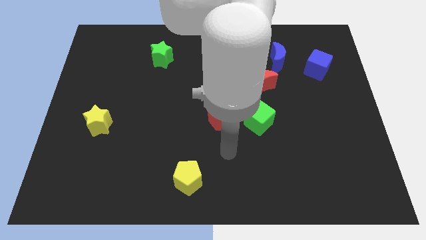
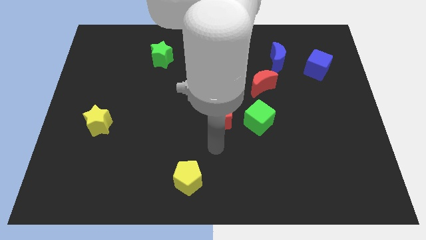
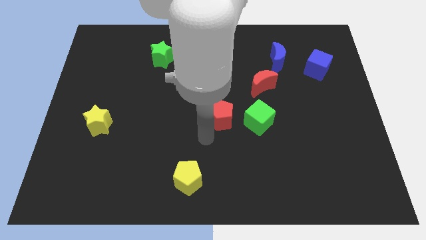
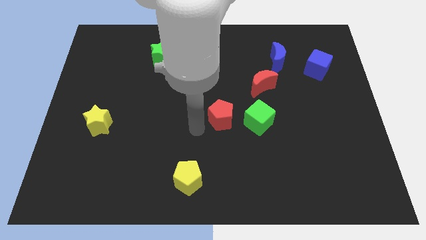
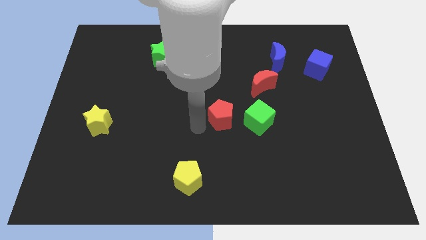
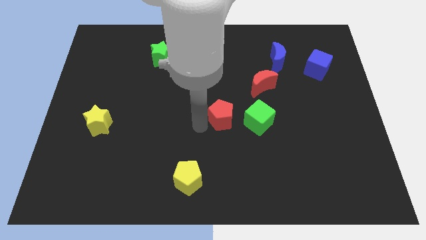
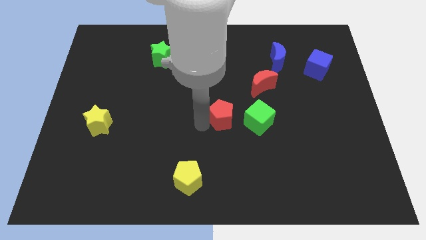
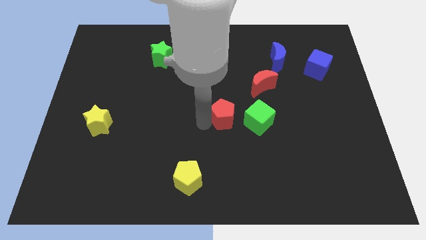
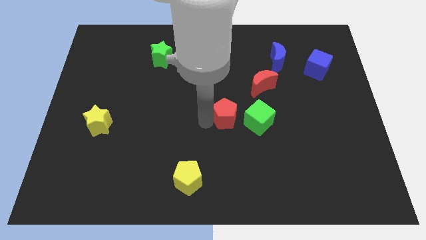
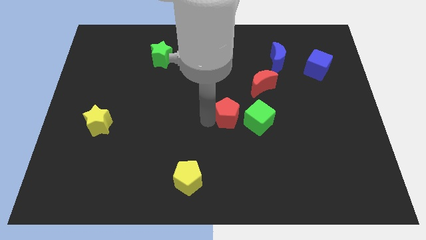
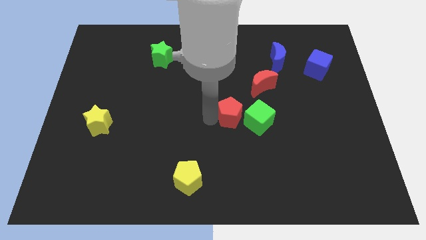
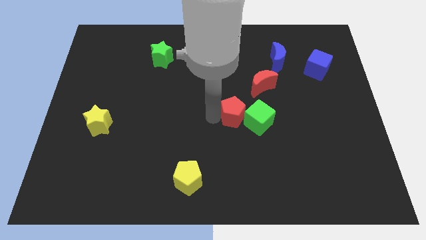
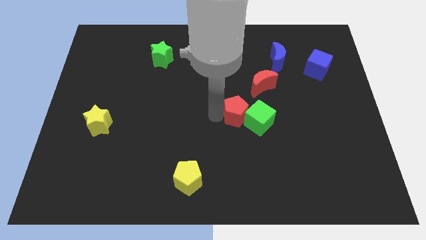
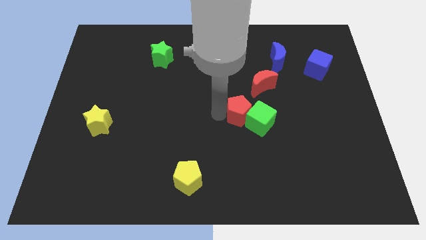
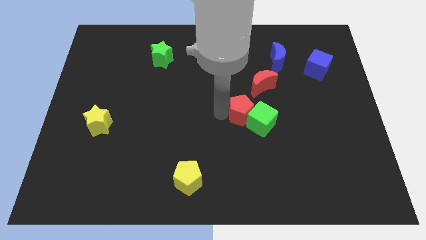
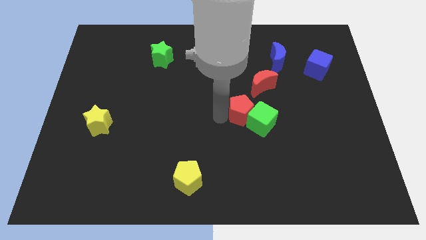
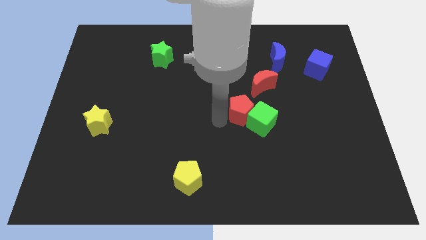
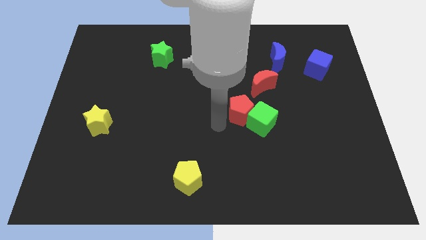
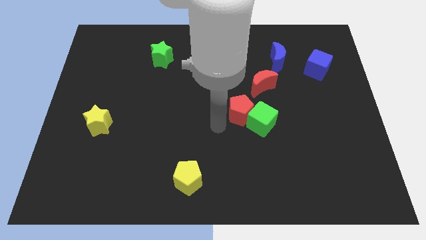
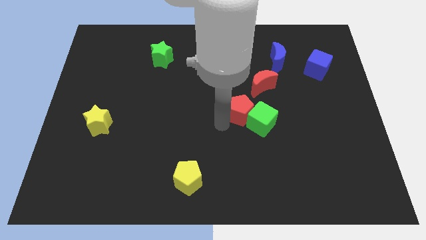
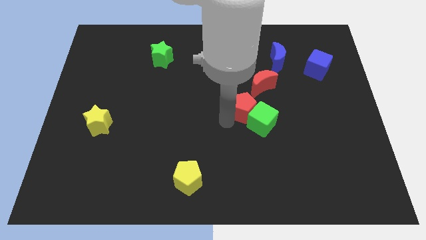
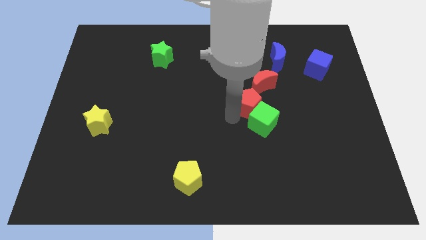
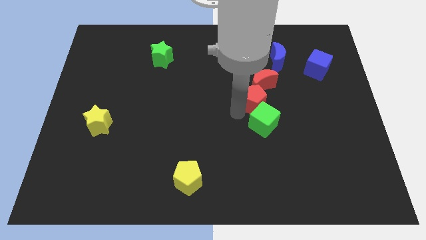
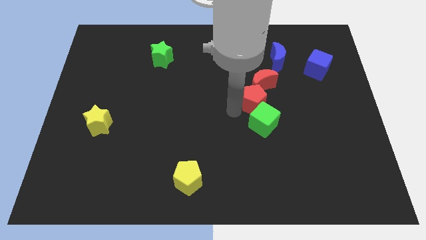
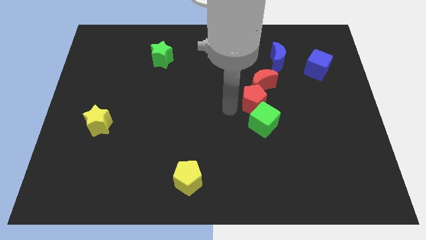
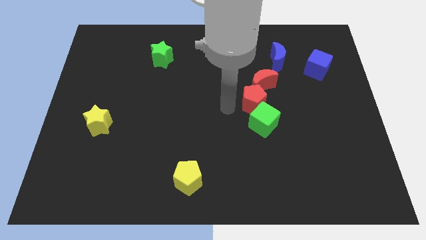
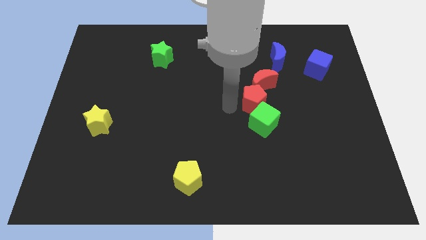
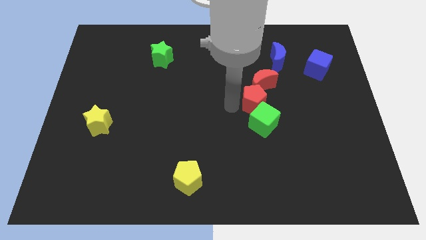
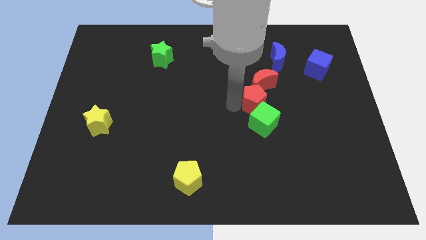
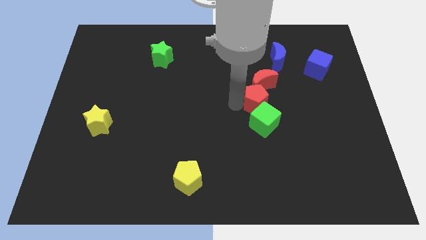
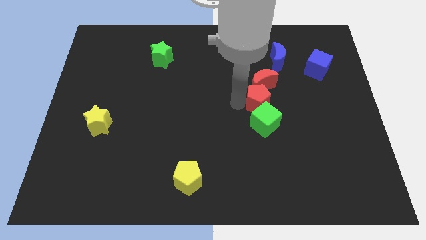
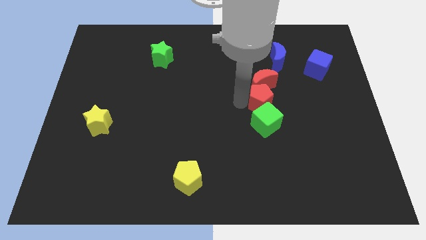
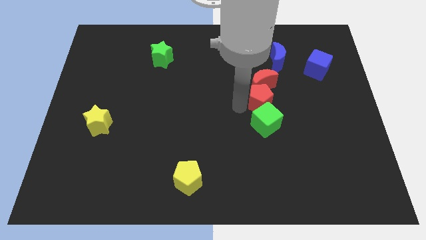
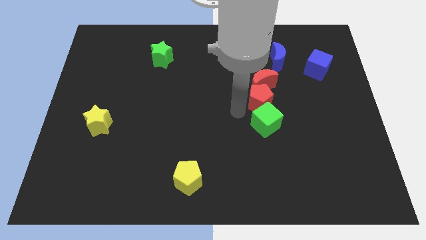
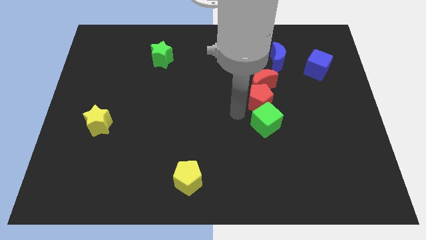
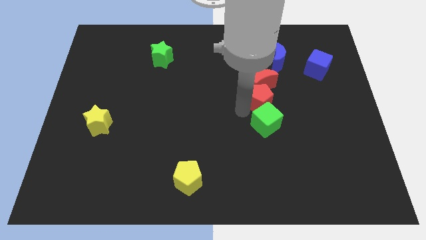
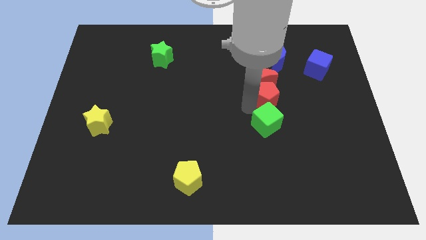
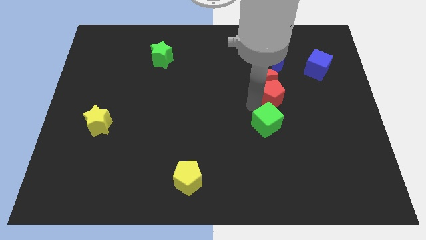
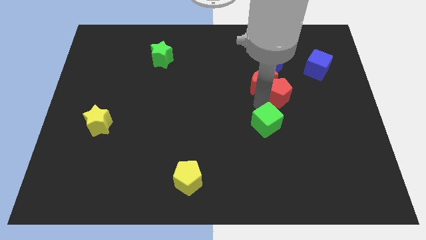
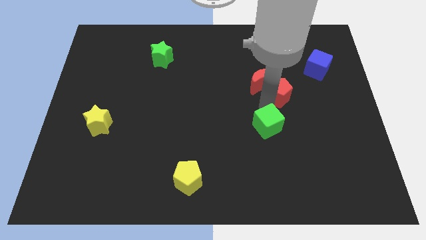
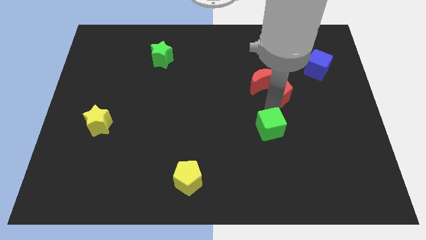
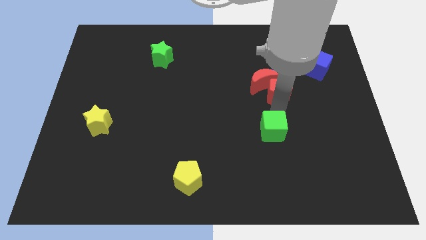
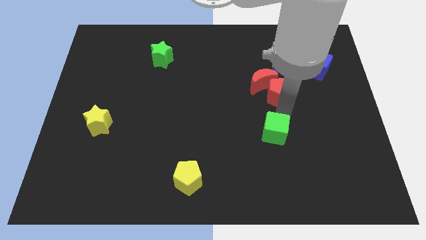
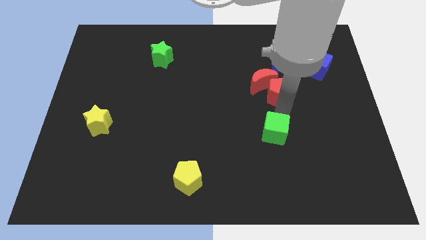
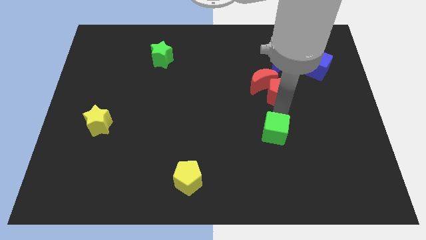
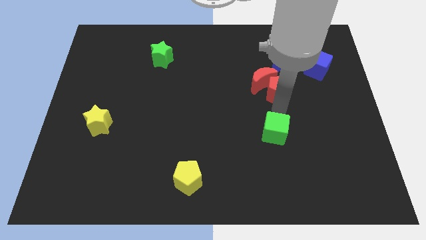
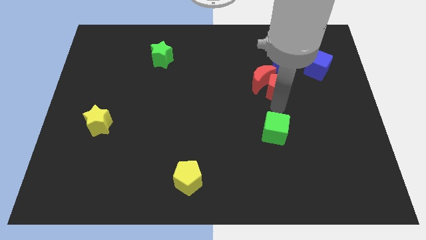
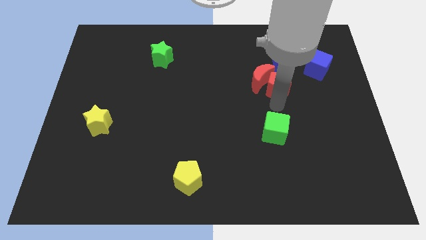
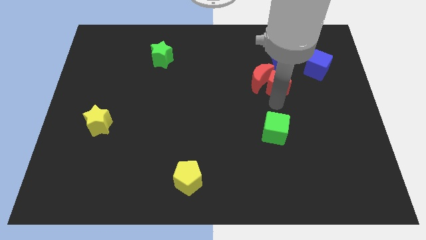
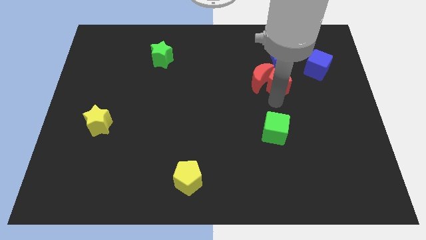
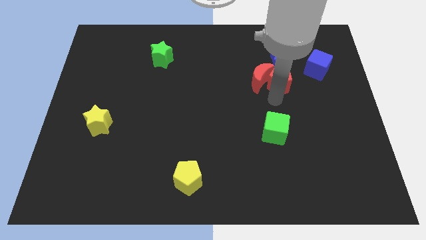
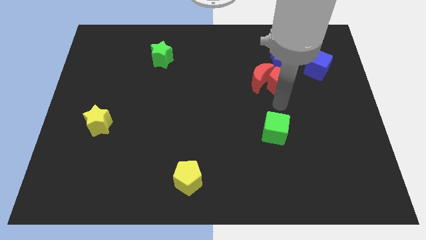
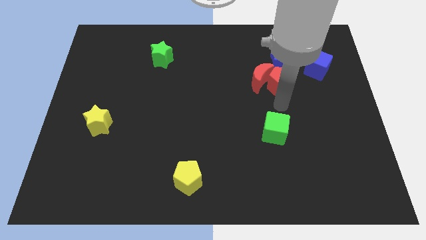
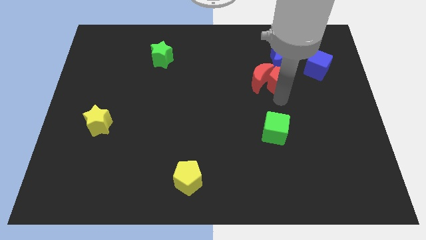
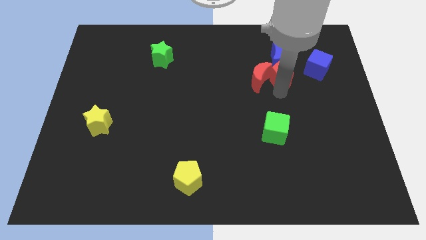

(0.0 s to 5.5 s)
slide the red pentagon towards the blue moon

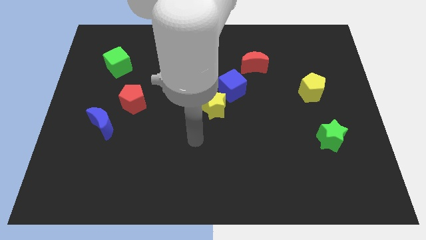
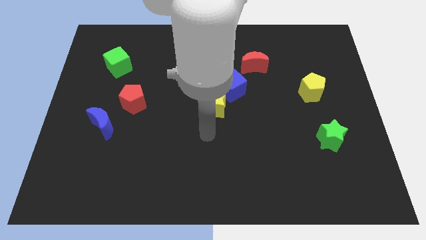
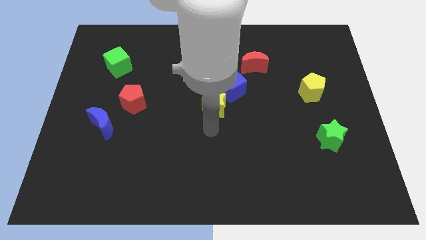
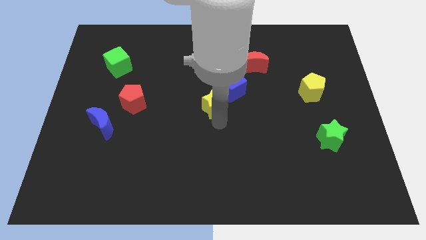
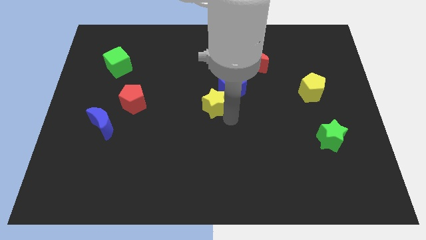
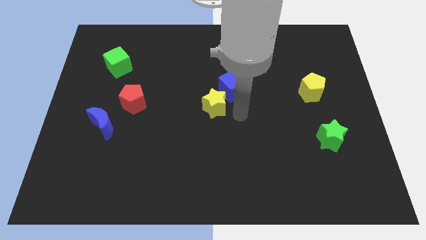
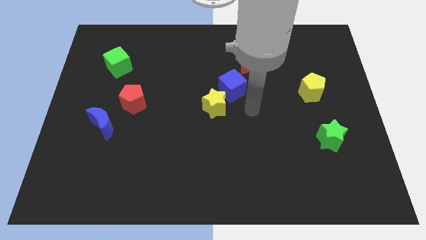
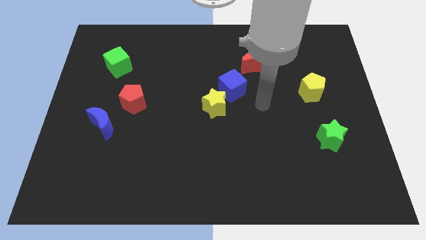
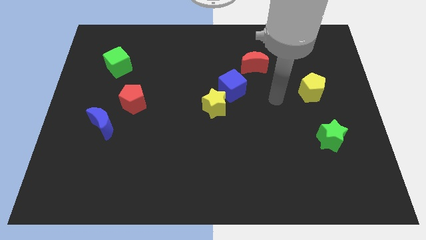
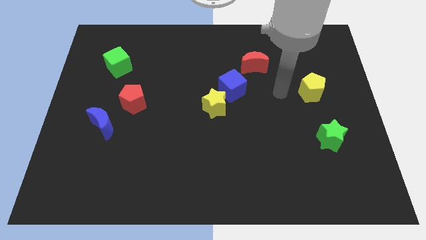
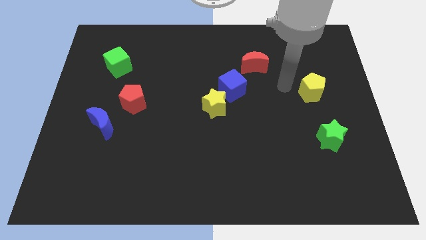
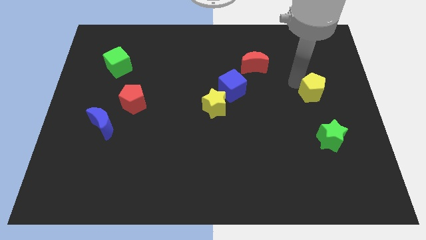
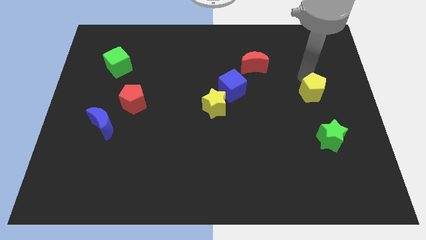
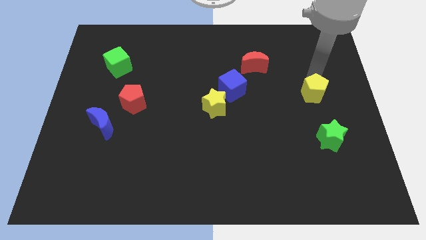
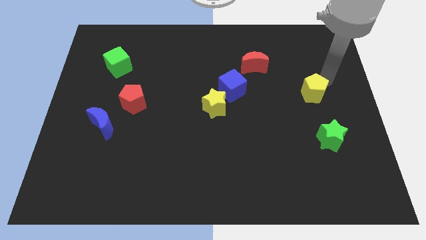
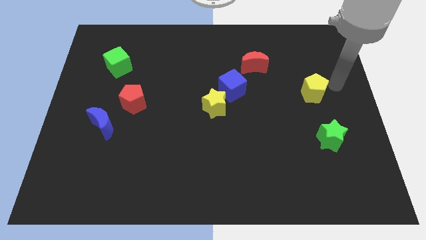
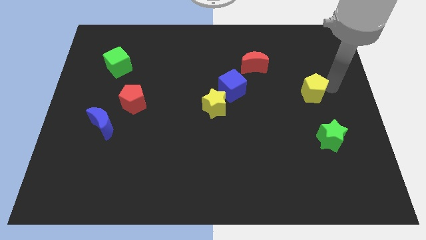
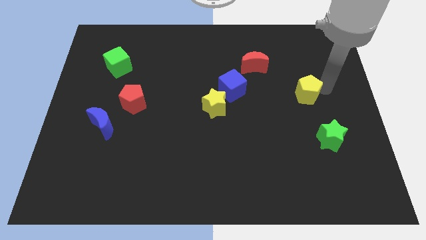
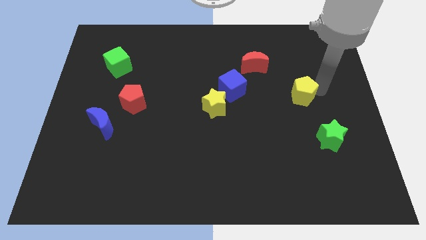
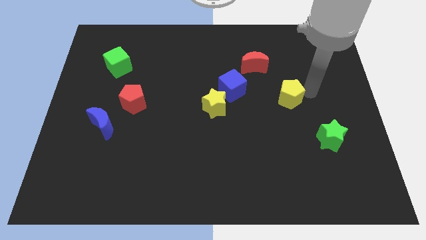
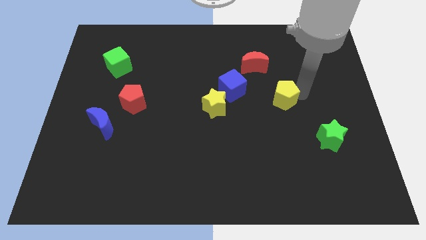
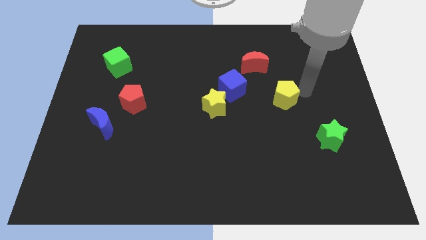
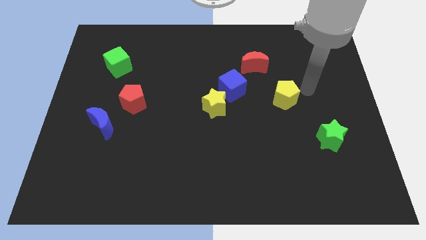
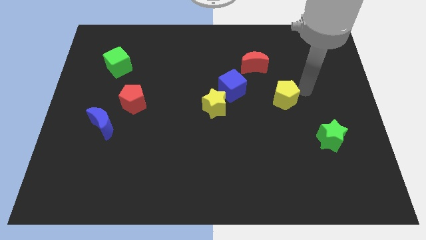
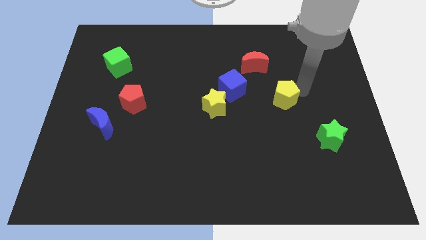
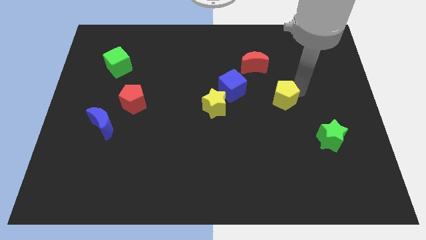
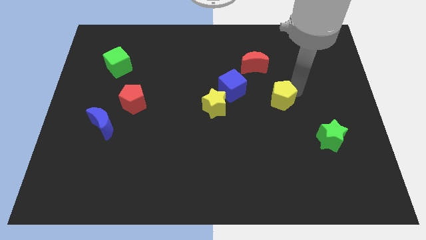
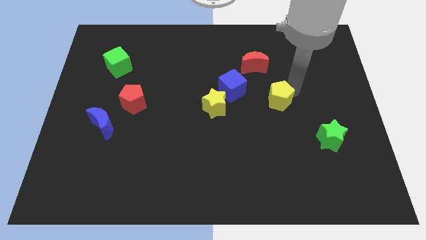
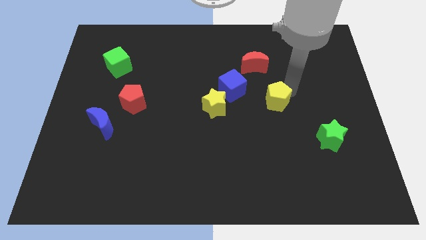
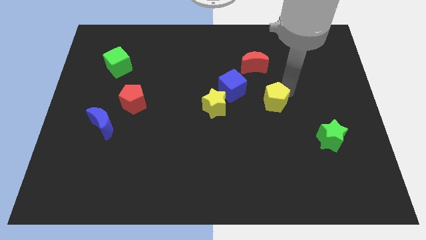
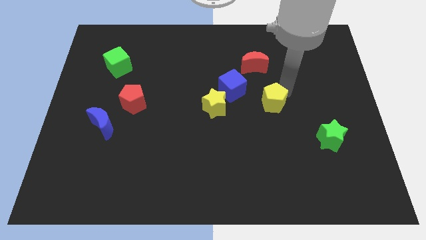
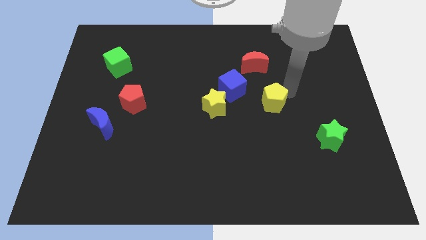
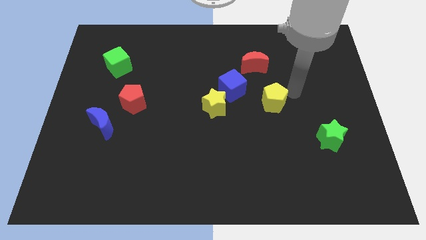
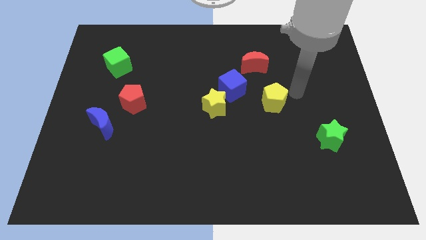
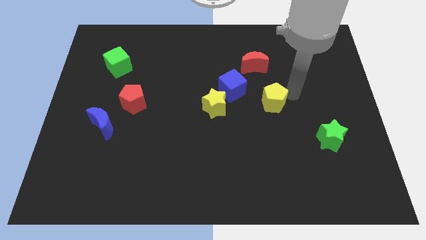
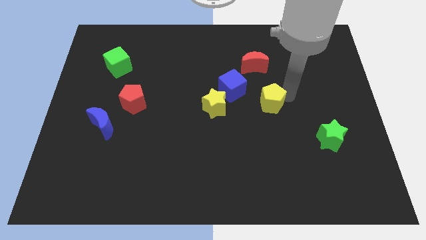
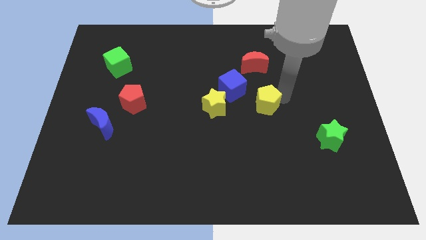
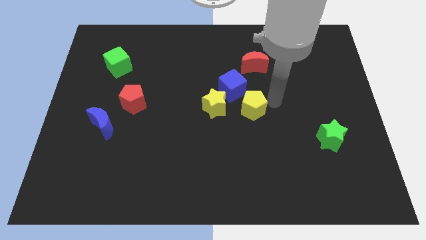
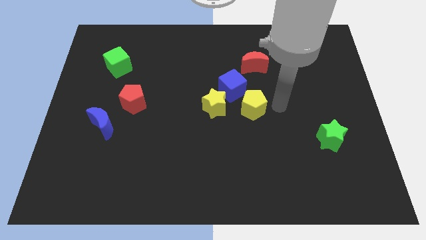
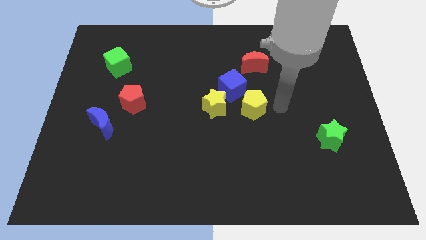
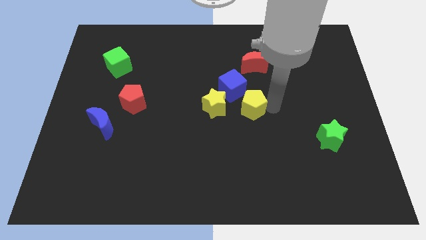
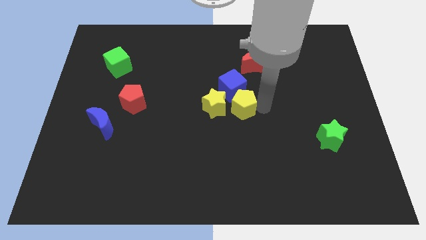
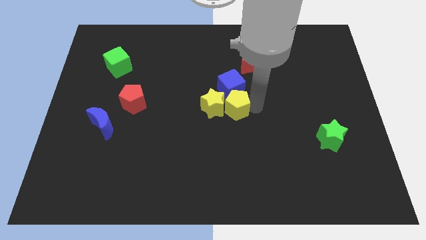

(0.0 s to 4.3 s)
put the yellow pentagon to the yellow star
